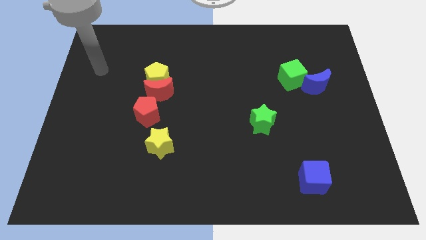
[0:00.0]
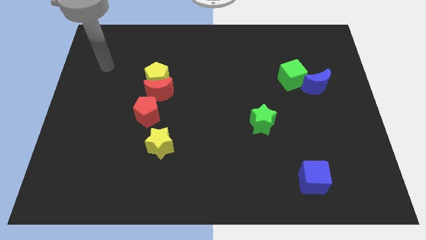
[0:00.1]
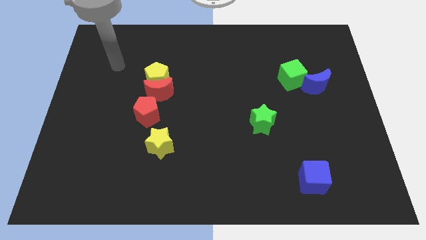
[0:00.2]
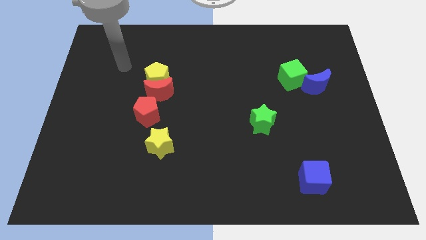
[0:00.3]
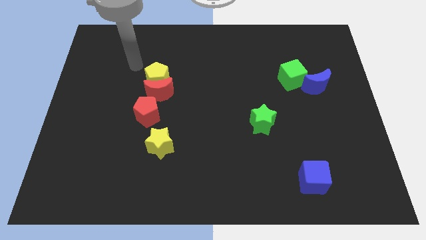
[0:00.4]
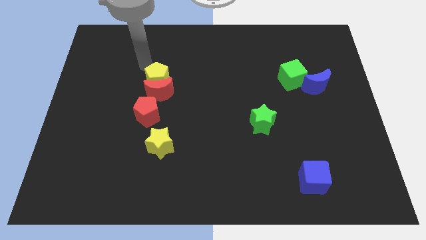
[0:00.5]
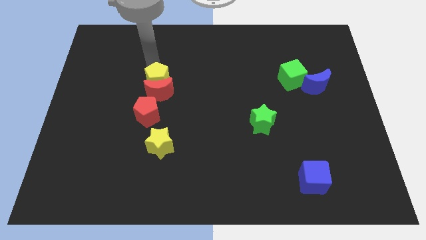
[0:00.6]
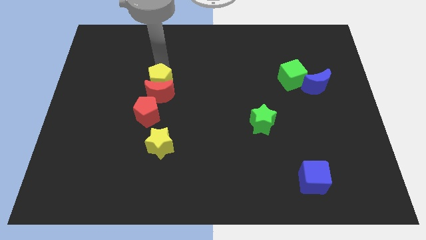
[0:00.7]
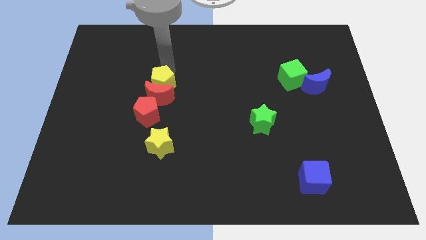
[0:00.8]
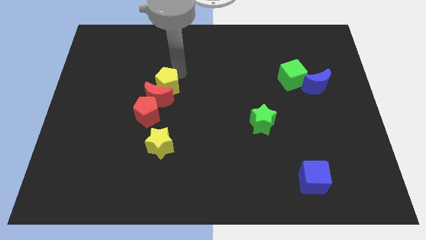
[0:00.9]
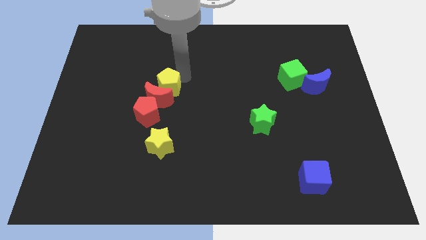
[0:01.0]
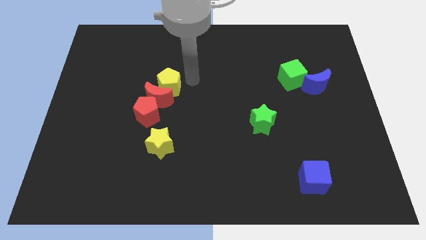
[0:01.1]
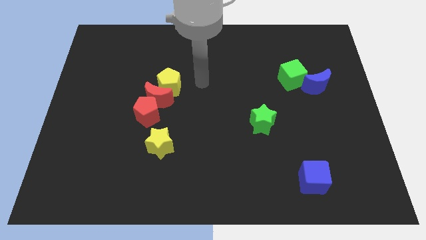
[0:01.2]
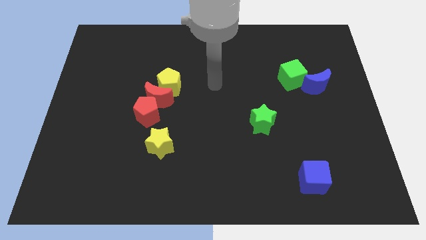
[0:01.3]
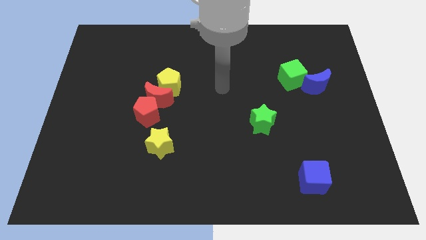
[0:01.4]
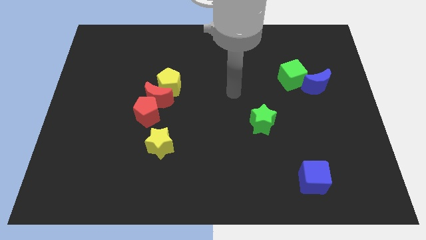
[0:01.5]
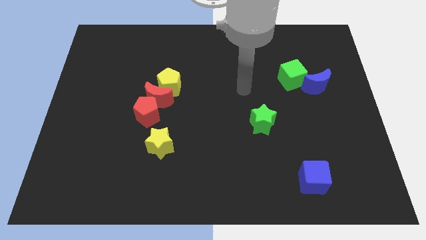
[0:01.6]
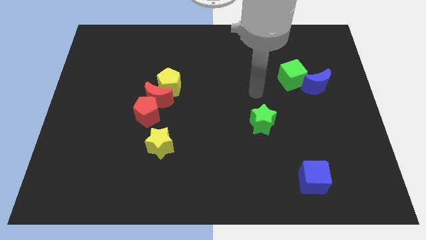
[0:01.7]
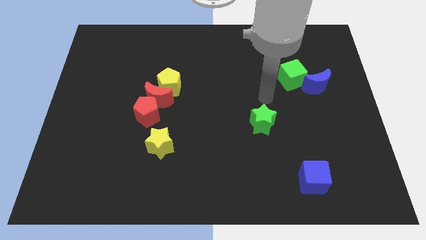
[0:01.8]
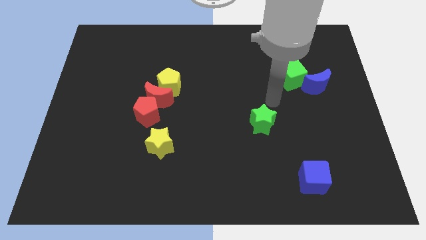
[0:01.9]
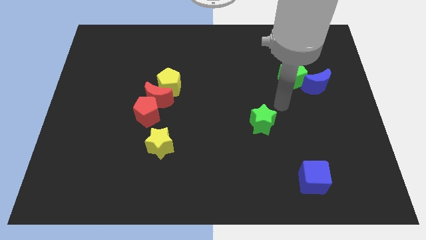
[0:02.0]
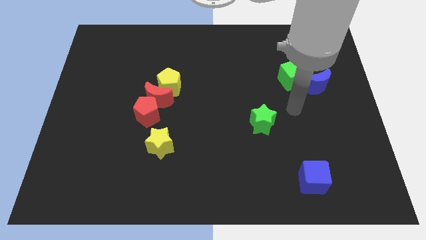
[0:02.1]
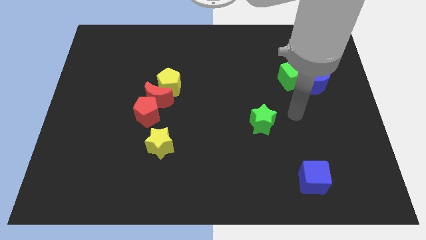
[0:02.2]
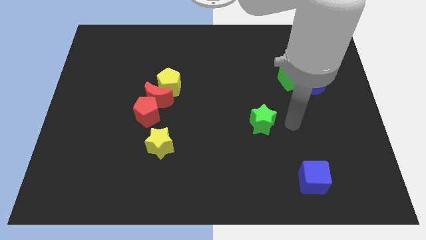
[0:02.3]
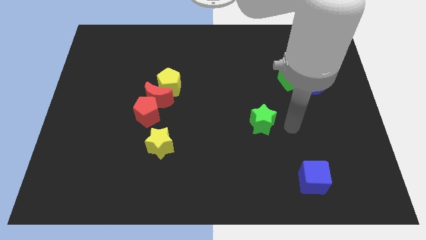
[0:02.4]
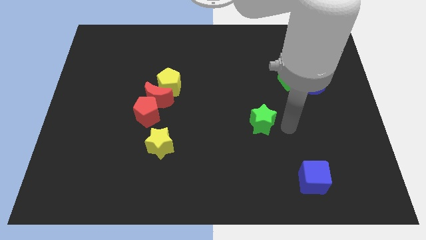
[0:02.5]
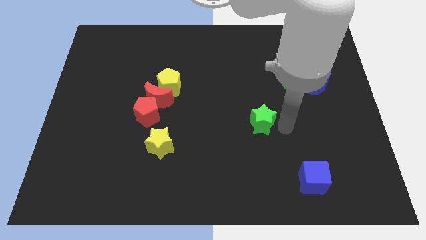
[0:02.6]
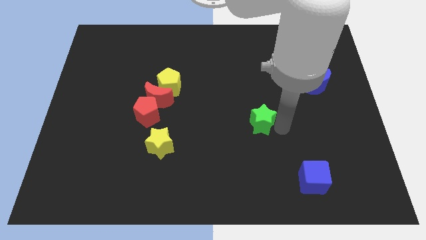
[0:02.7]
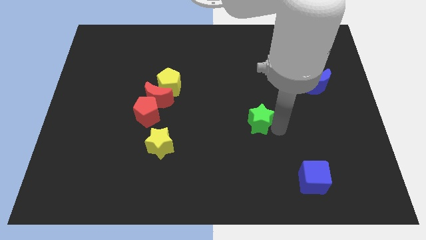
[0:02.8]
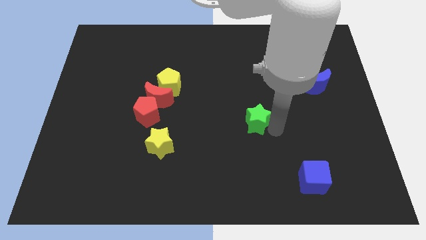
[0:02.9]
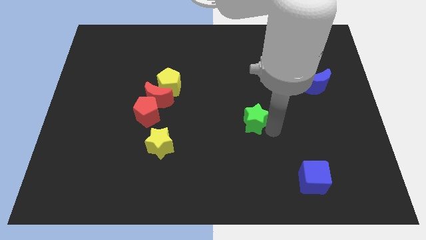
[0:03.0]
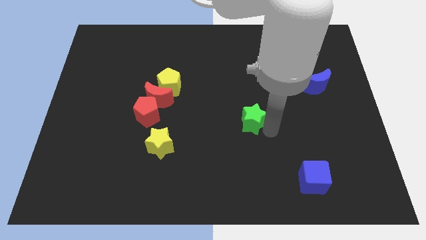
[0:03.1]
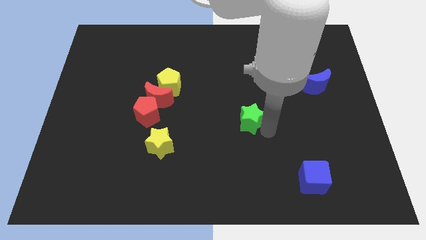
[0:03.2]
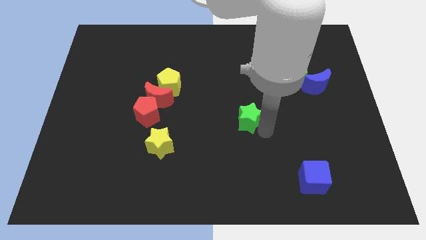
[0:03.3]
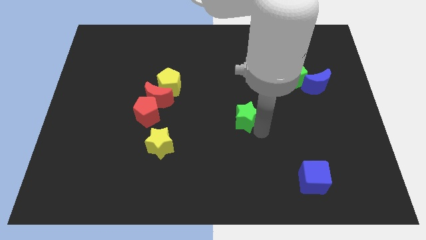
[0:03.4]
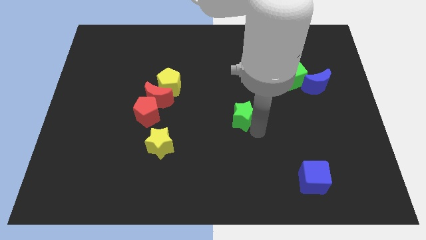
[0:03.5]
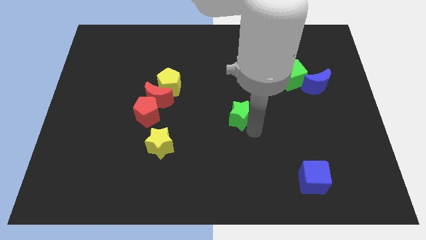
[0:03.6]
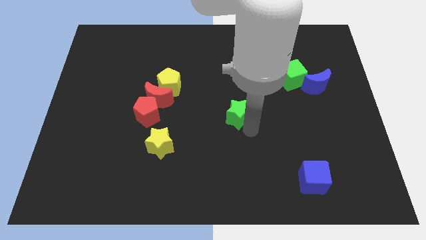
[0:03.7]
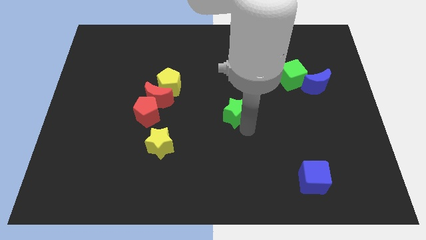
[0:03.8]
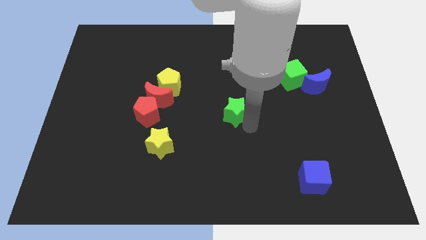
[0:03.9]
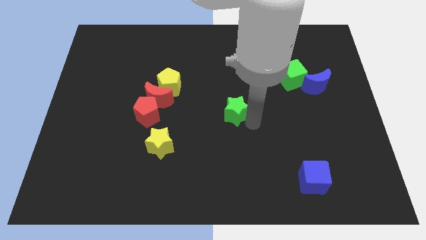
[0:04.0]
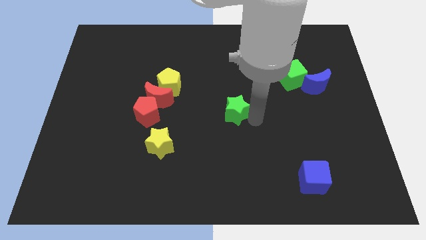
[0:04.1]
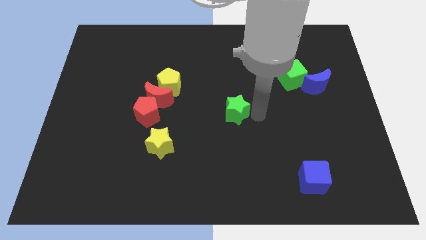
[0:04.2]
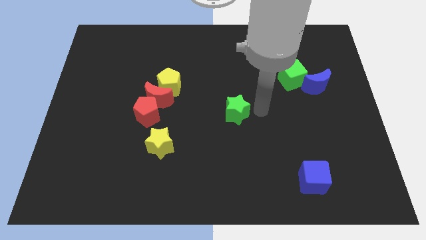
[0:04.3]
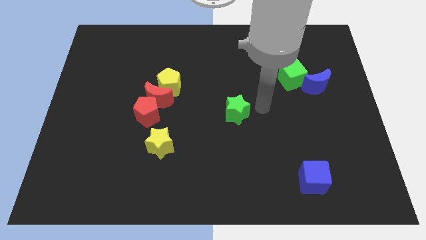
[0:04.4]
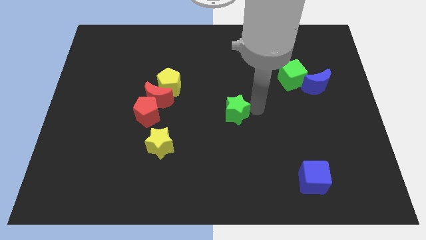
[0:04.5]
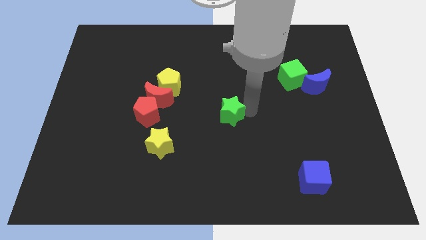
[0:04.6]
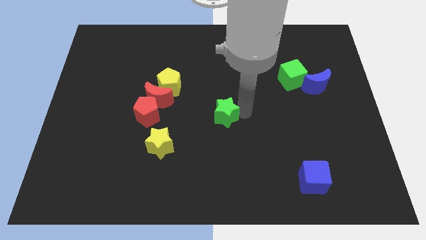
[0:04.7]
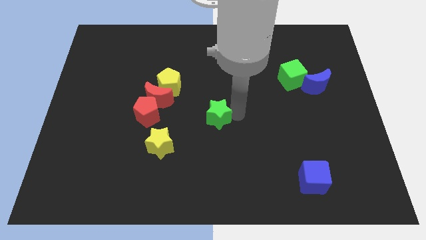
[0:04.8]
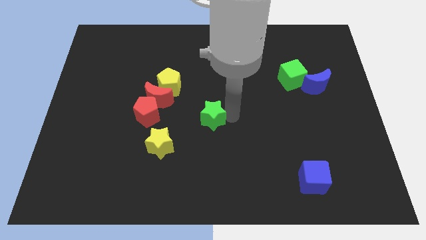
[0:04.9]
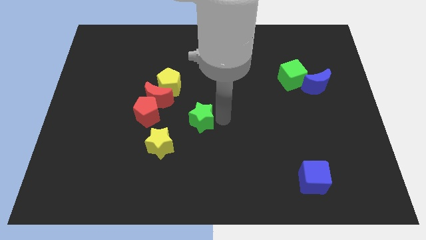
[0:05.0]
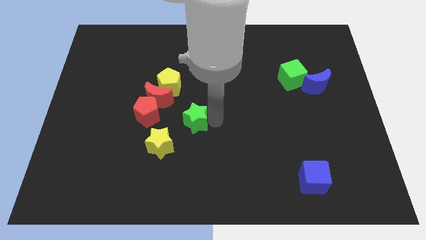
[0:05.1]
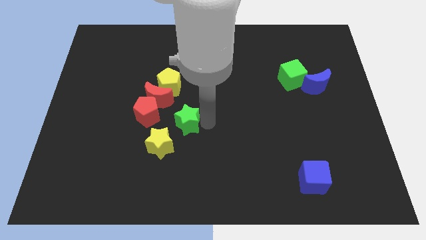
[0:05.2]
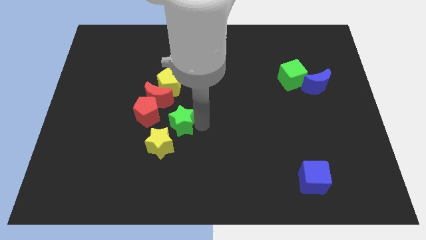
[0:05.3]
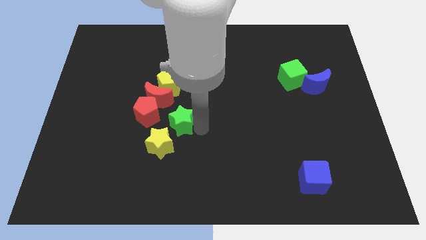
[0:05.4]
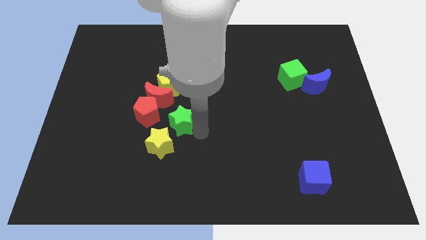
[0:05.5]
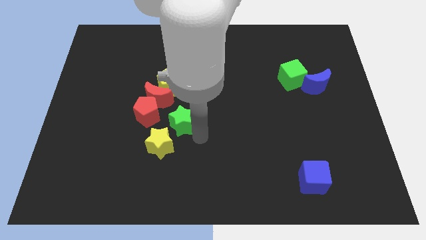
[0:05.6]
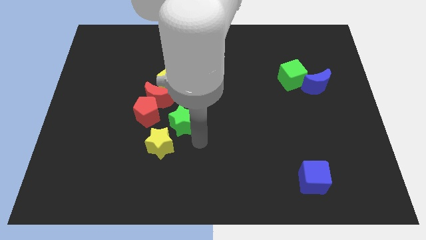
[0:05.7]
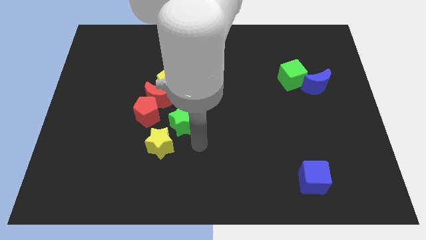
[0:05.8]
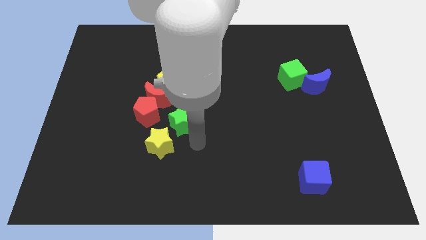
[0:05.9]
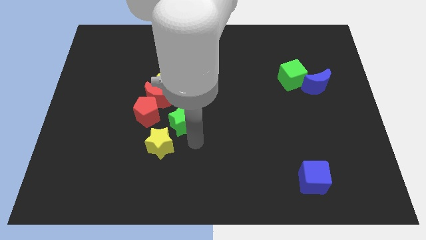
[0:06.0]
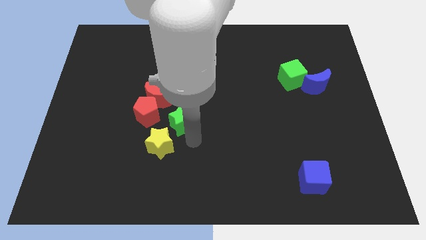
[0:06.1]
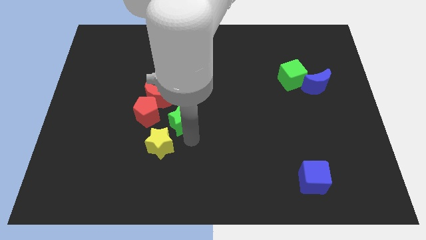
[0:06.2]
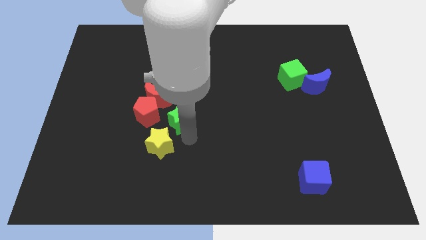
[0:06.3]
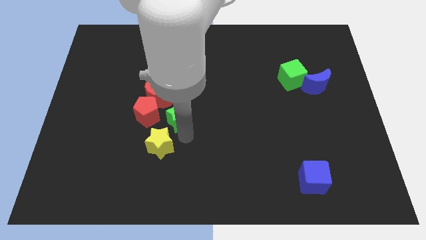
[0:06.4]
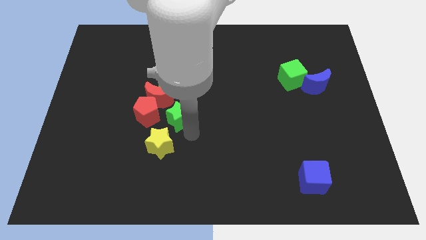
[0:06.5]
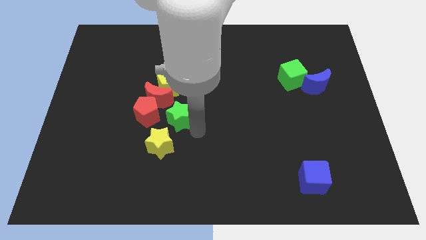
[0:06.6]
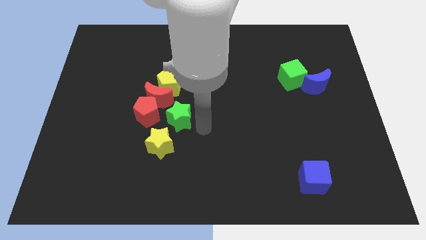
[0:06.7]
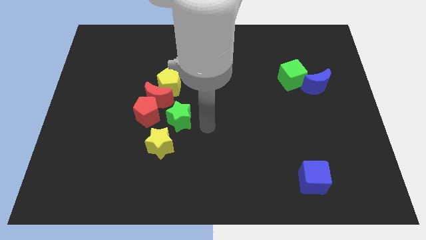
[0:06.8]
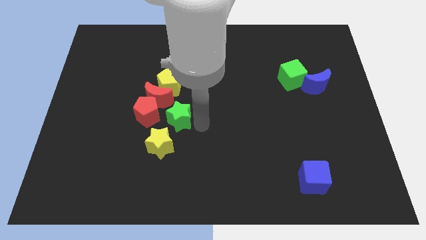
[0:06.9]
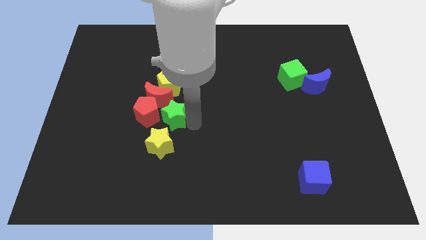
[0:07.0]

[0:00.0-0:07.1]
move the green star to the red pentagon
